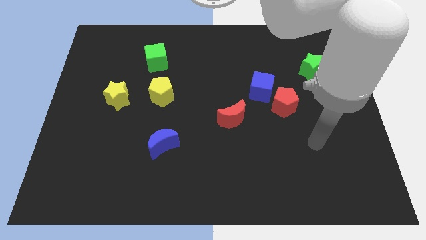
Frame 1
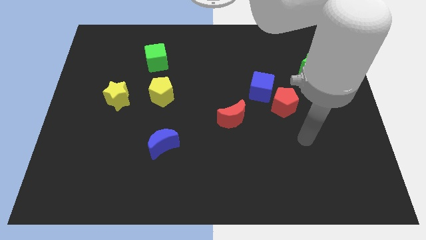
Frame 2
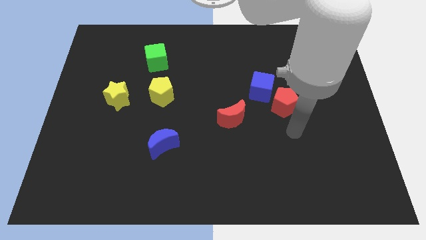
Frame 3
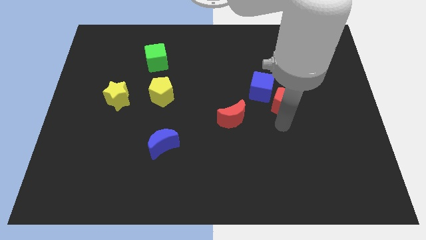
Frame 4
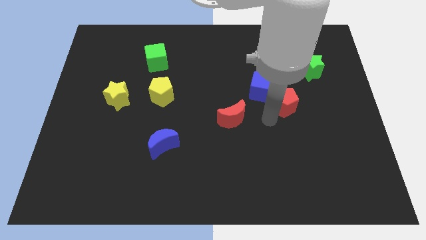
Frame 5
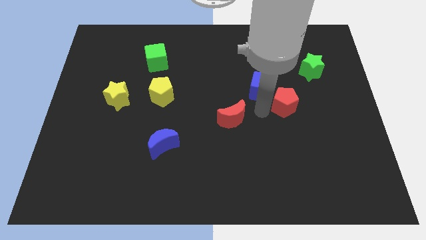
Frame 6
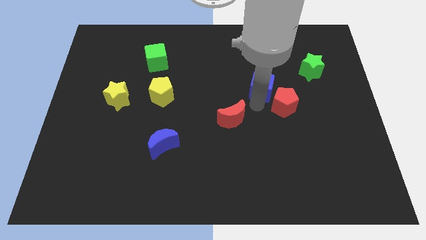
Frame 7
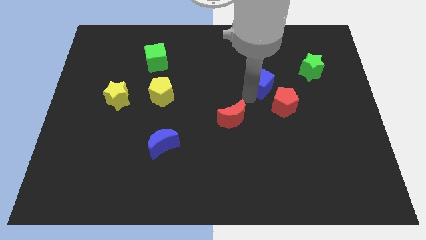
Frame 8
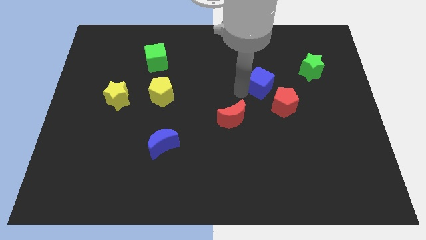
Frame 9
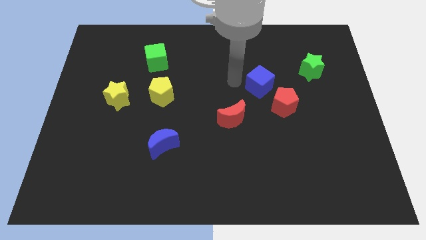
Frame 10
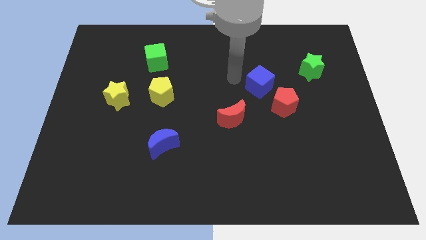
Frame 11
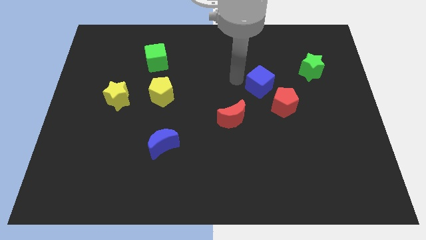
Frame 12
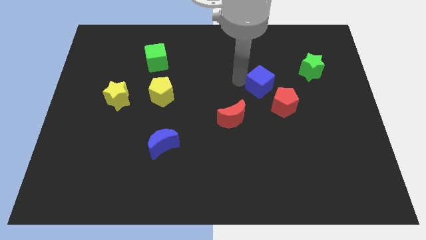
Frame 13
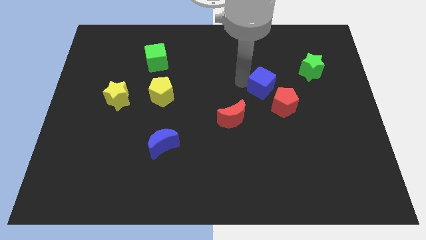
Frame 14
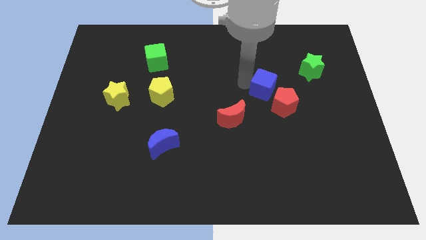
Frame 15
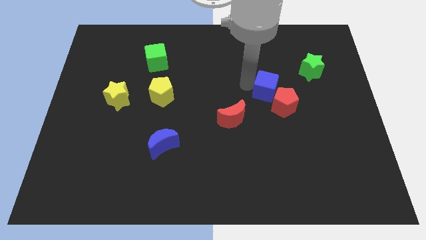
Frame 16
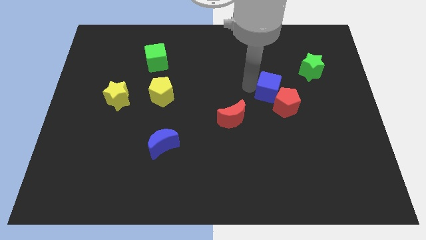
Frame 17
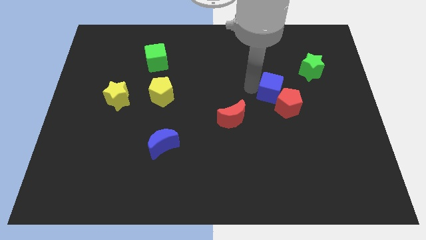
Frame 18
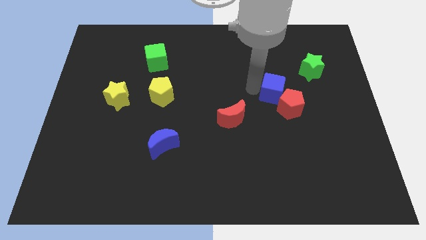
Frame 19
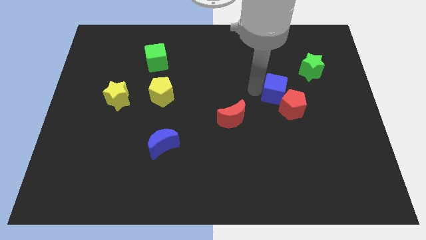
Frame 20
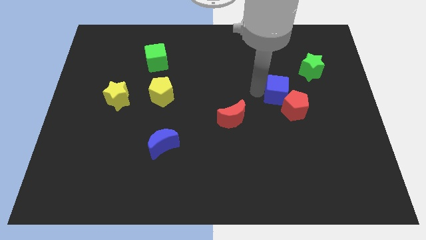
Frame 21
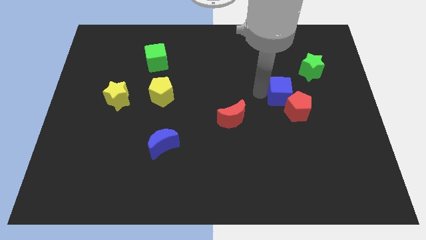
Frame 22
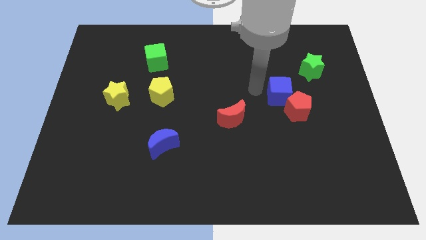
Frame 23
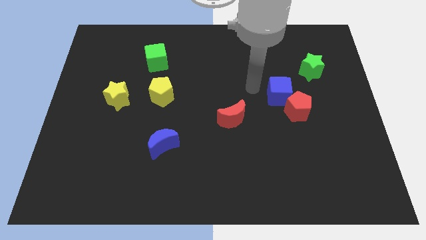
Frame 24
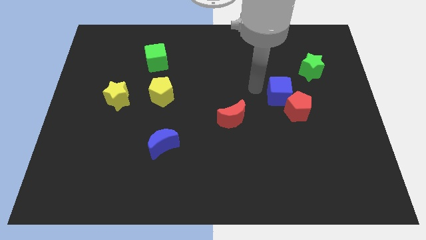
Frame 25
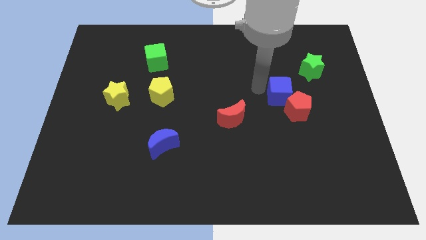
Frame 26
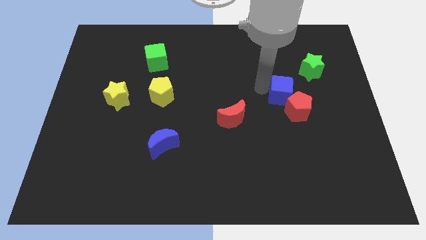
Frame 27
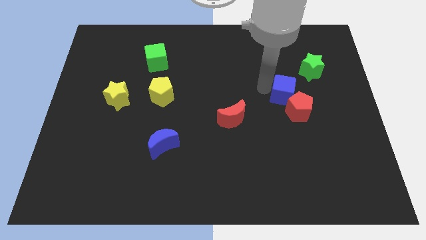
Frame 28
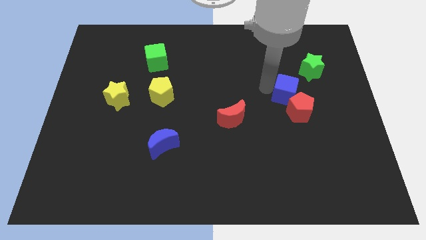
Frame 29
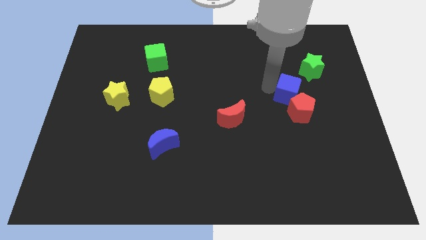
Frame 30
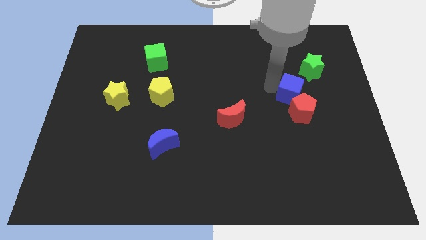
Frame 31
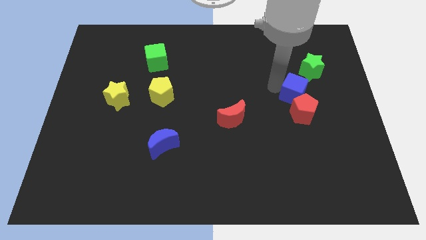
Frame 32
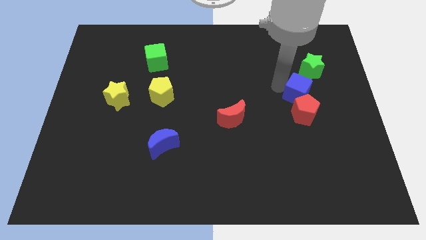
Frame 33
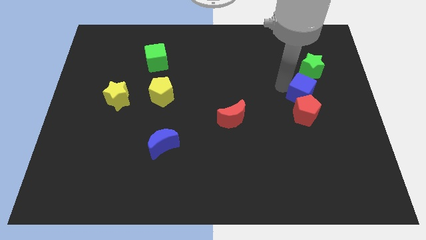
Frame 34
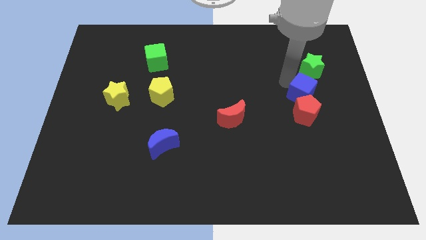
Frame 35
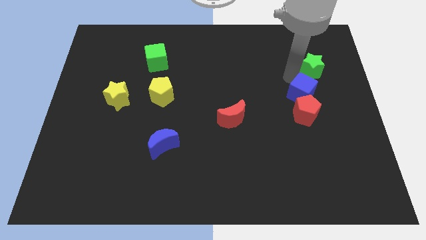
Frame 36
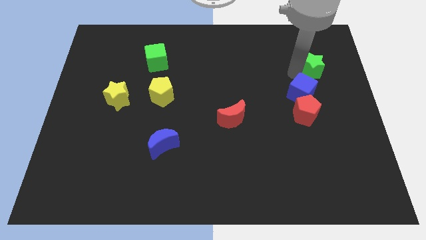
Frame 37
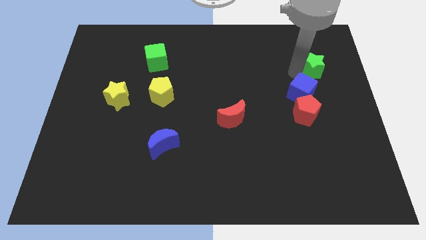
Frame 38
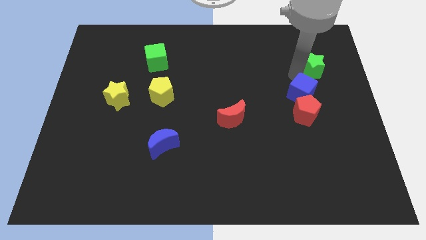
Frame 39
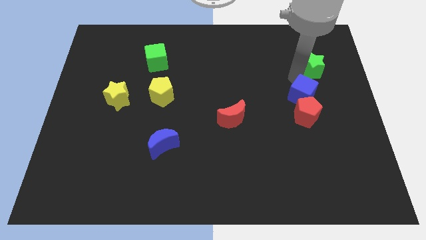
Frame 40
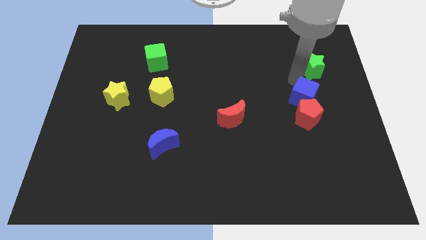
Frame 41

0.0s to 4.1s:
slide the blue cube somewhat diagonally down and to the right

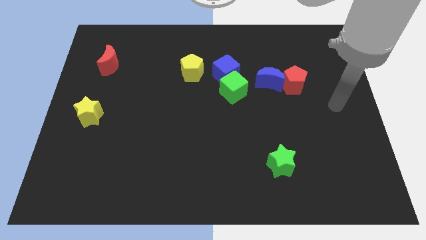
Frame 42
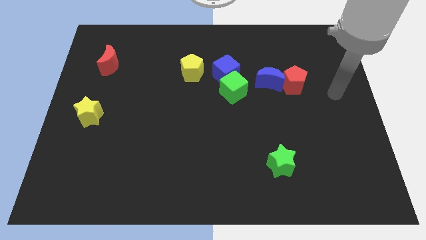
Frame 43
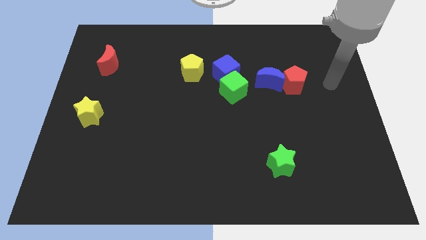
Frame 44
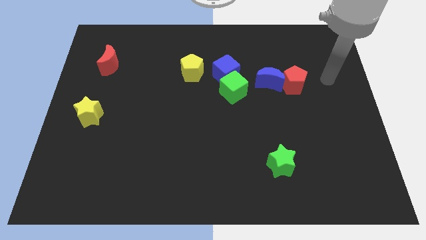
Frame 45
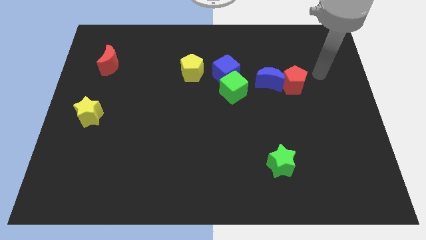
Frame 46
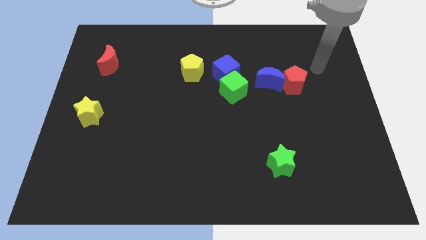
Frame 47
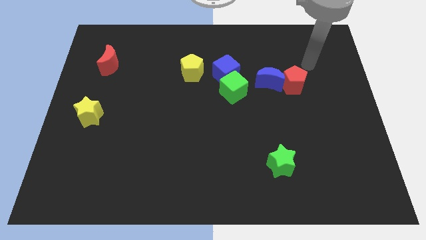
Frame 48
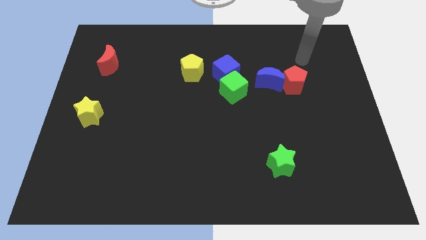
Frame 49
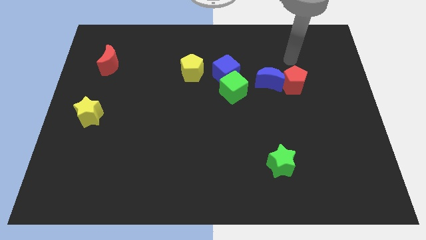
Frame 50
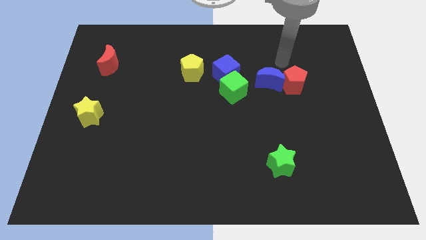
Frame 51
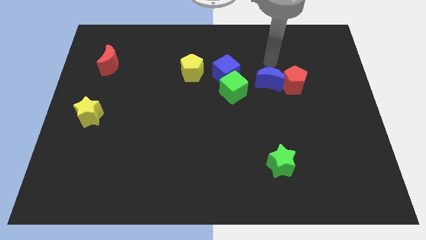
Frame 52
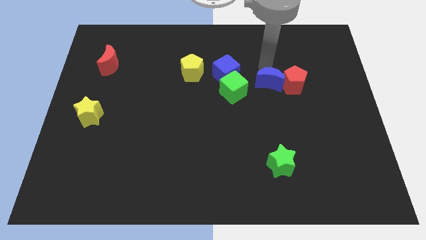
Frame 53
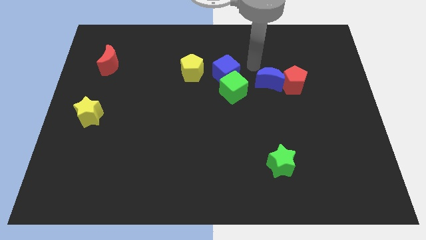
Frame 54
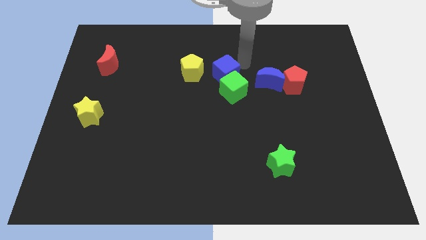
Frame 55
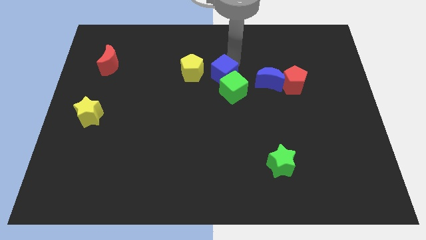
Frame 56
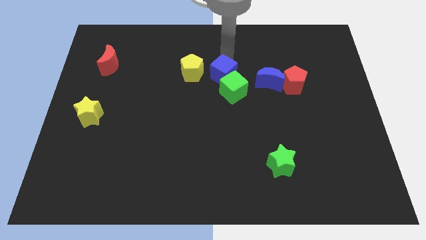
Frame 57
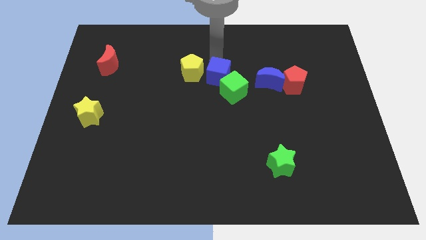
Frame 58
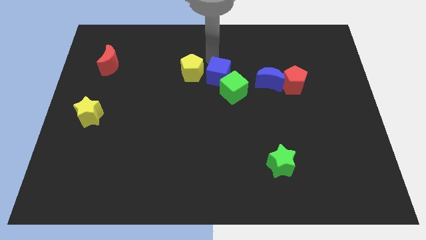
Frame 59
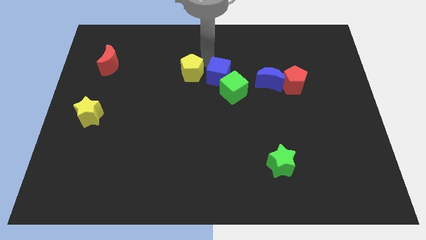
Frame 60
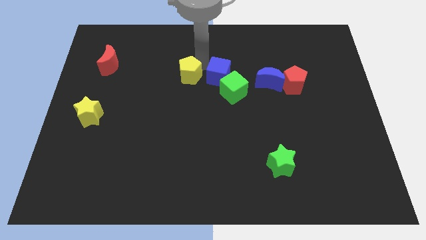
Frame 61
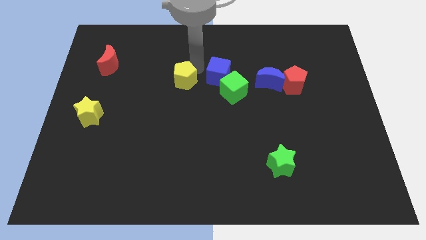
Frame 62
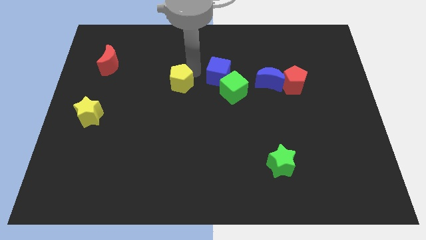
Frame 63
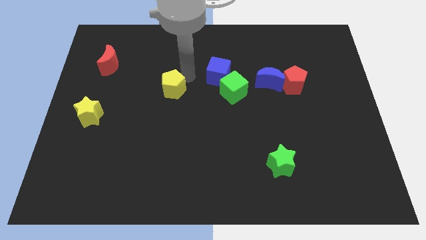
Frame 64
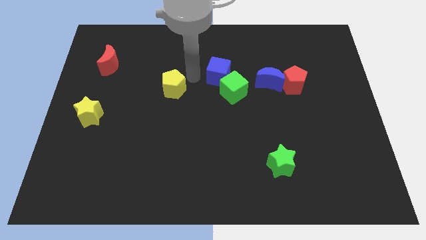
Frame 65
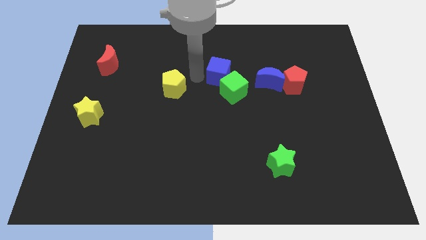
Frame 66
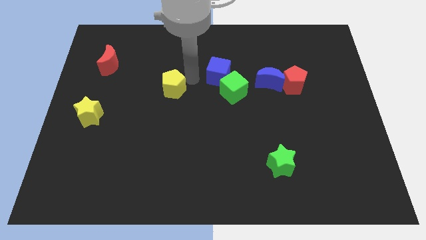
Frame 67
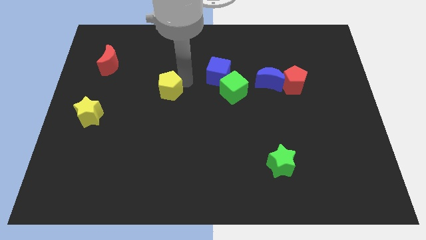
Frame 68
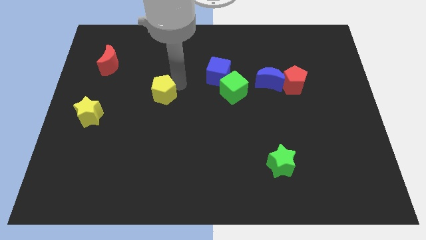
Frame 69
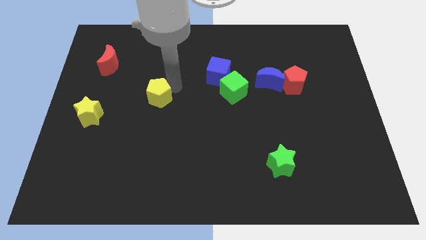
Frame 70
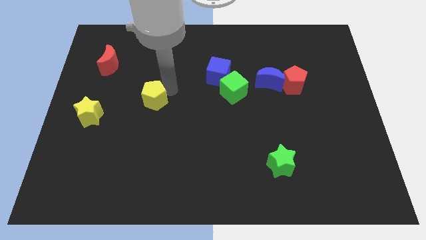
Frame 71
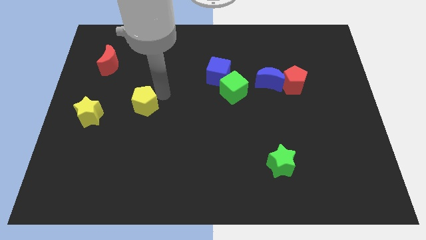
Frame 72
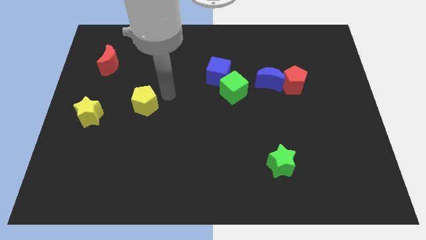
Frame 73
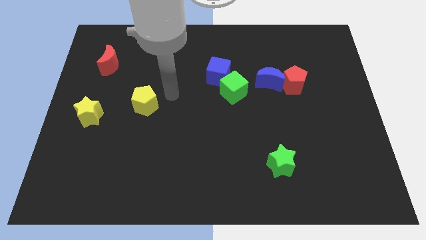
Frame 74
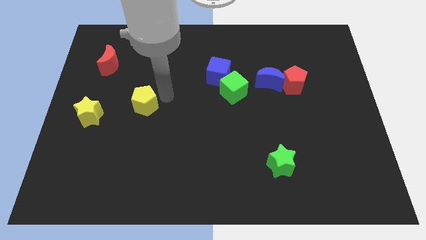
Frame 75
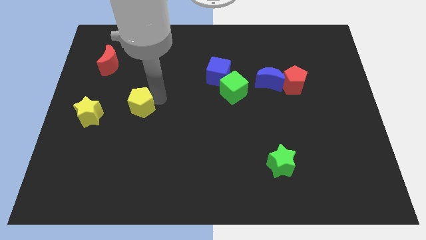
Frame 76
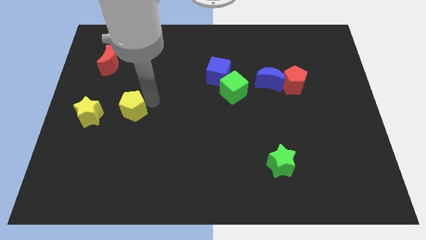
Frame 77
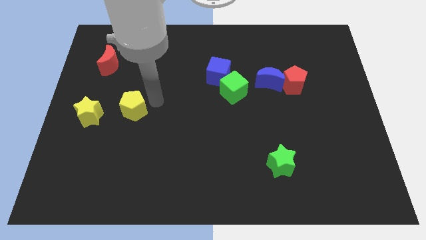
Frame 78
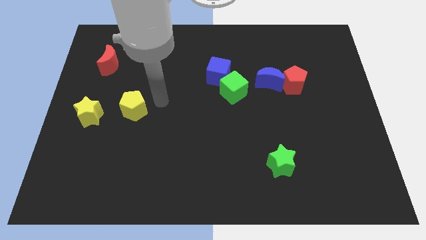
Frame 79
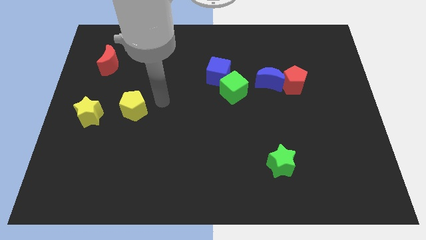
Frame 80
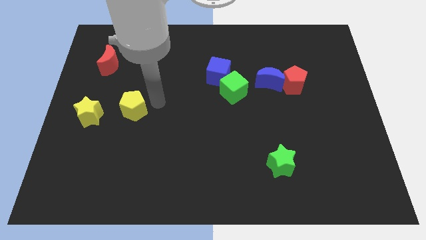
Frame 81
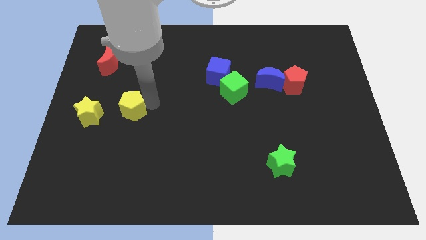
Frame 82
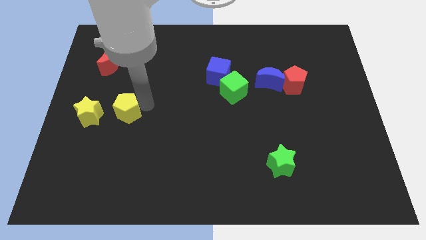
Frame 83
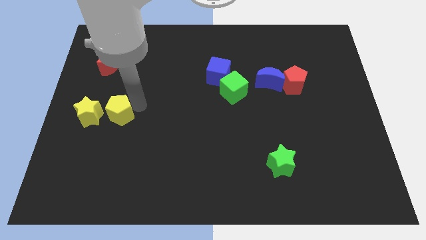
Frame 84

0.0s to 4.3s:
move the yellow pentagon down and to the left diagonally
